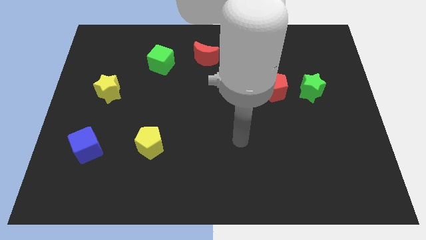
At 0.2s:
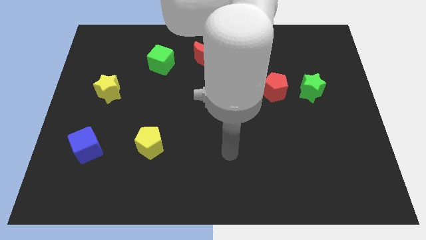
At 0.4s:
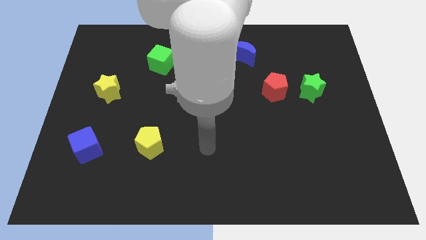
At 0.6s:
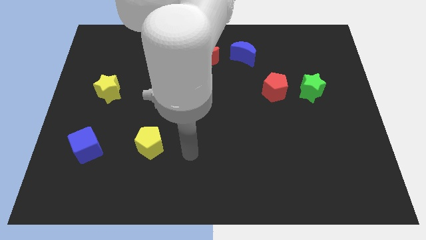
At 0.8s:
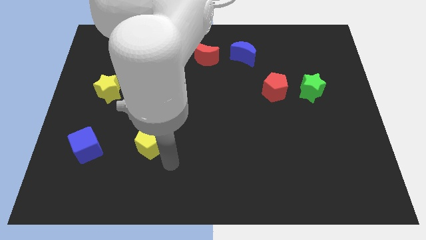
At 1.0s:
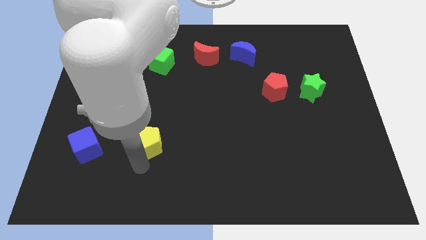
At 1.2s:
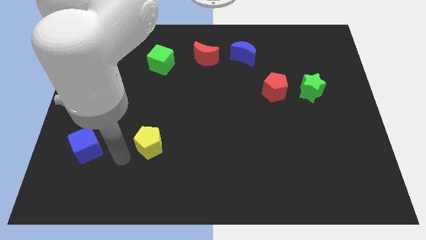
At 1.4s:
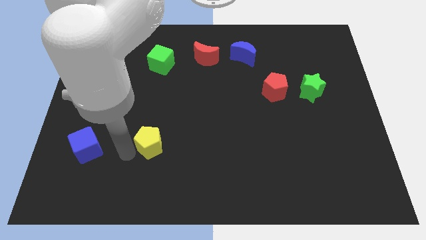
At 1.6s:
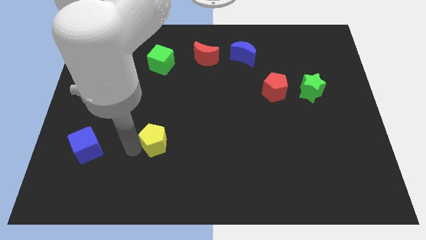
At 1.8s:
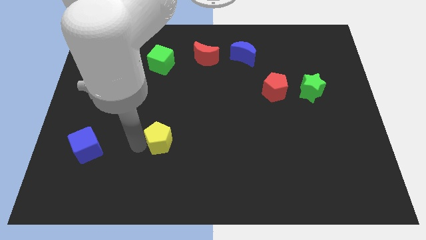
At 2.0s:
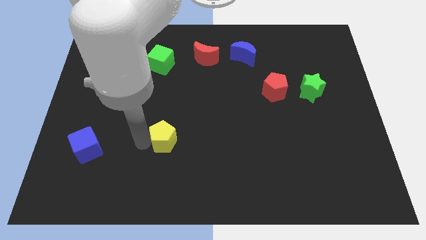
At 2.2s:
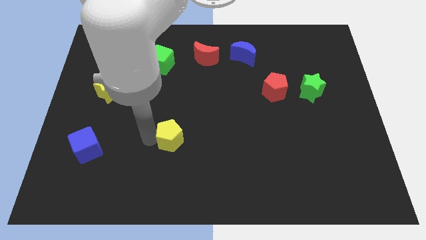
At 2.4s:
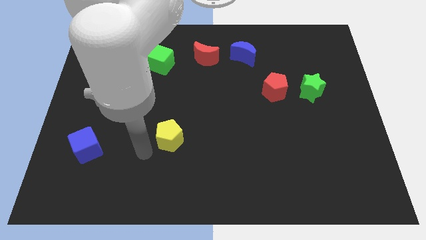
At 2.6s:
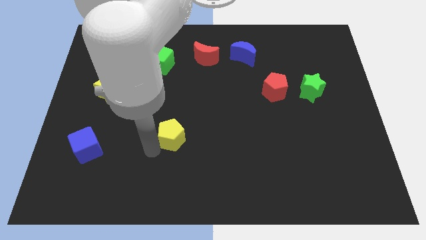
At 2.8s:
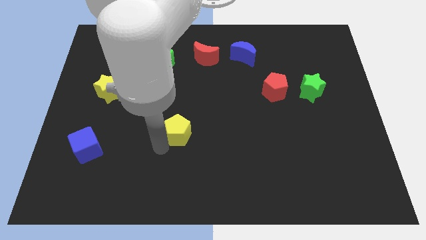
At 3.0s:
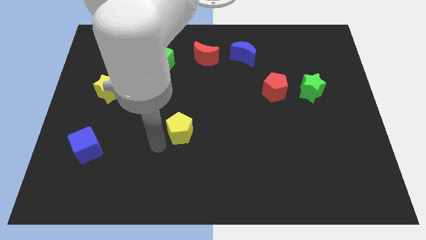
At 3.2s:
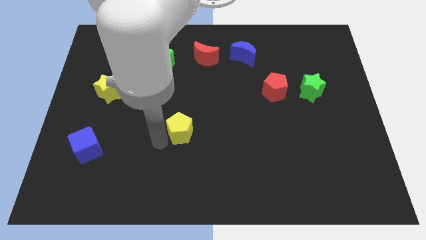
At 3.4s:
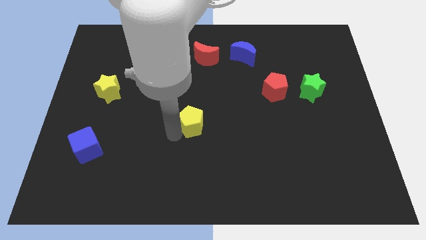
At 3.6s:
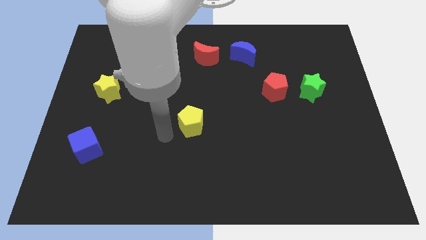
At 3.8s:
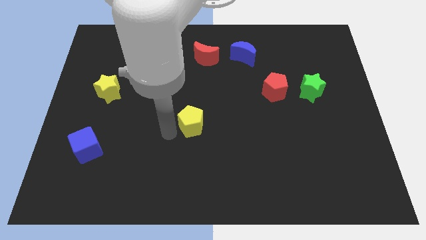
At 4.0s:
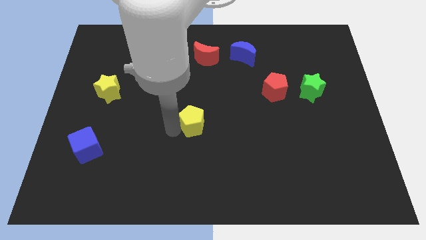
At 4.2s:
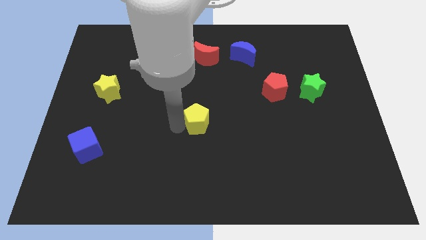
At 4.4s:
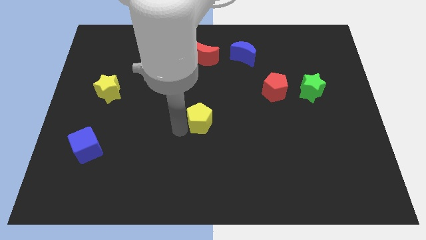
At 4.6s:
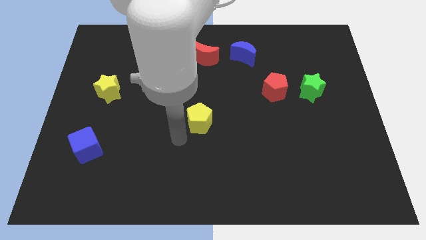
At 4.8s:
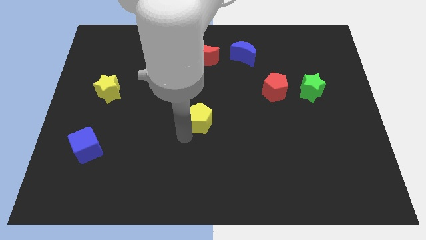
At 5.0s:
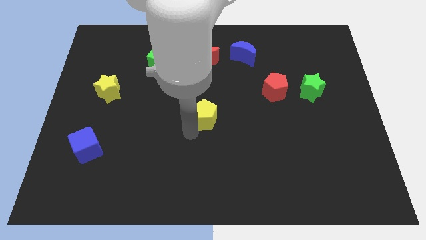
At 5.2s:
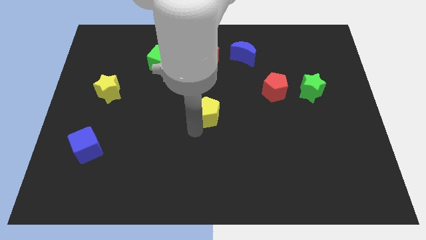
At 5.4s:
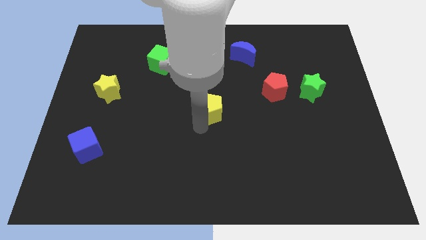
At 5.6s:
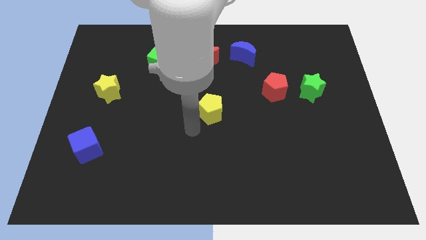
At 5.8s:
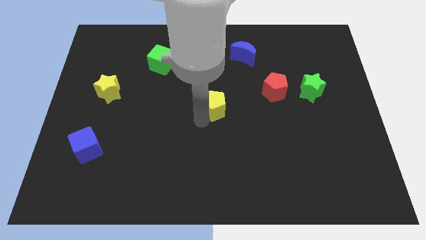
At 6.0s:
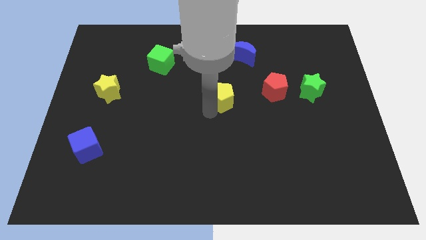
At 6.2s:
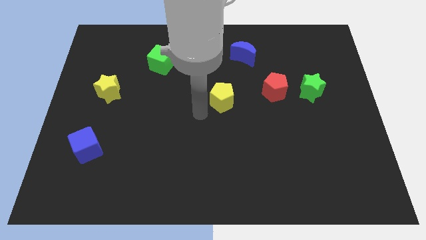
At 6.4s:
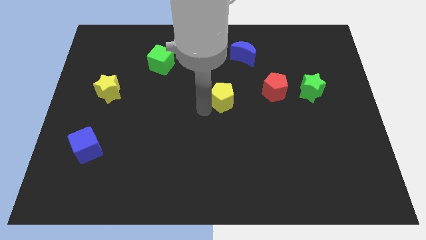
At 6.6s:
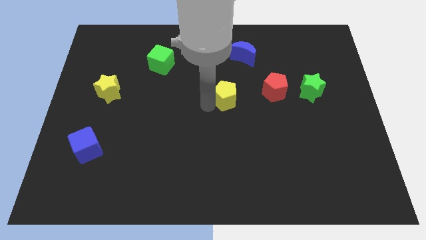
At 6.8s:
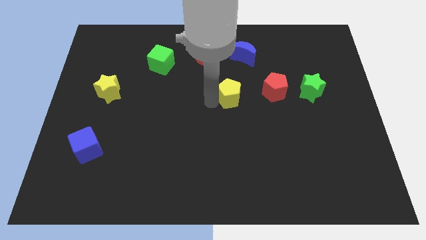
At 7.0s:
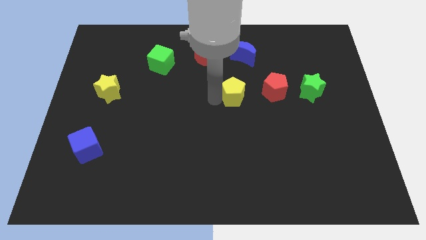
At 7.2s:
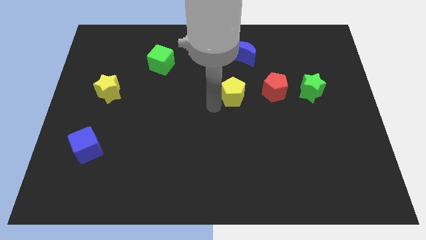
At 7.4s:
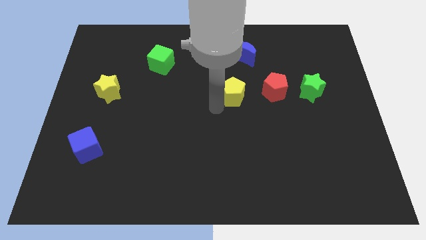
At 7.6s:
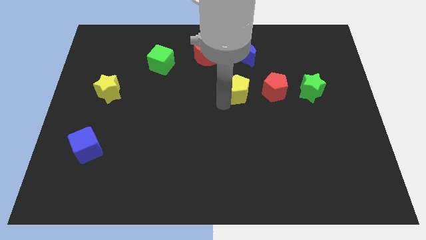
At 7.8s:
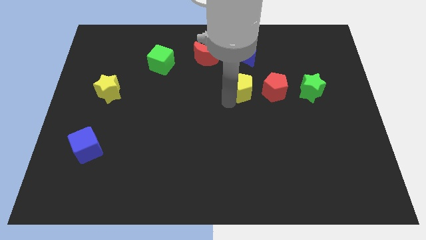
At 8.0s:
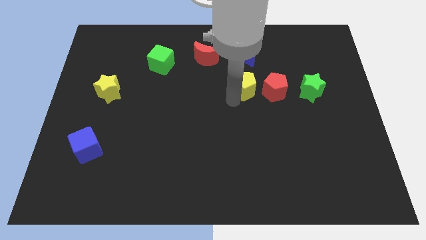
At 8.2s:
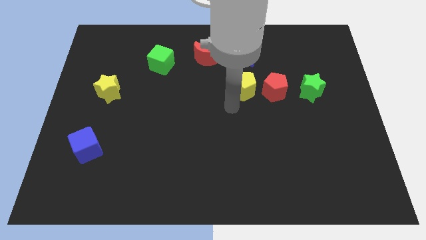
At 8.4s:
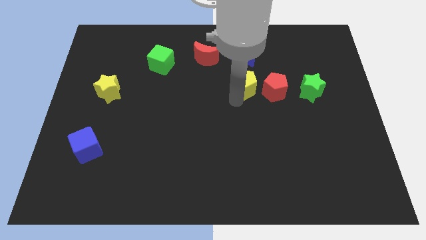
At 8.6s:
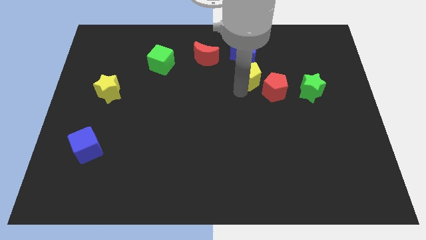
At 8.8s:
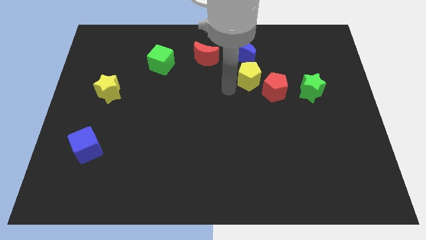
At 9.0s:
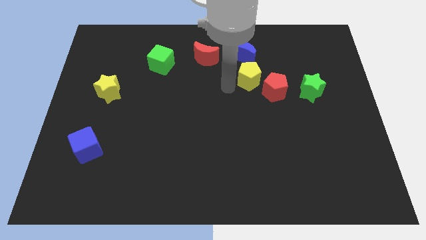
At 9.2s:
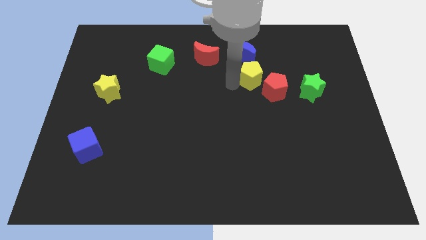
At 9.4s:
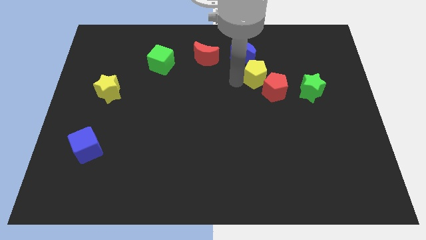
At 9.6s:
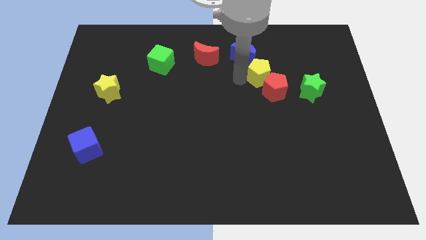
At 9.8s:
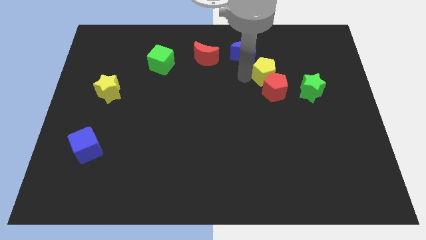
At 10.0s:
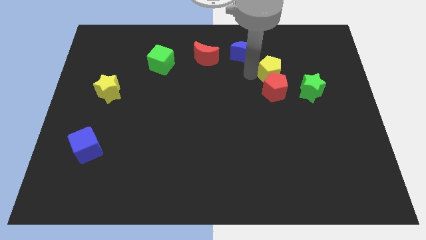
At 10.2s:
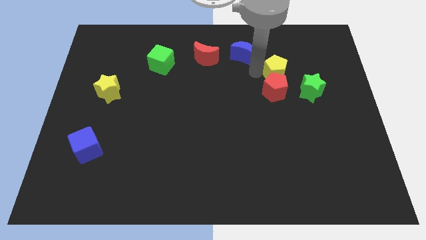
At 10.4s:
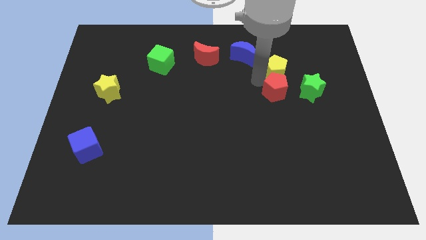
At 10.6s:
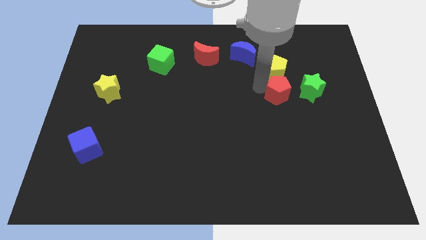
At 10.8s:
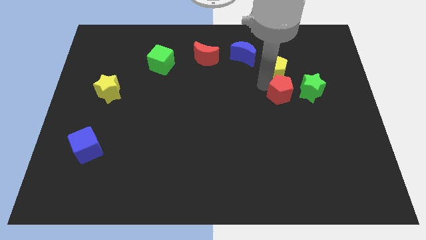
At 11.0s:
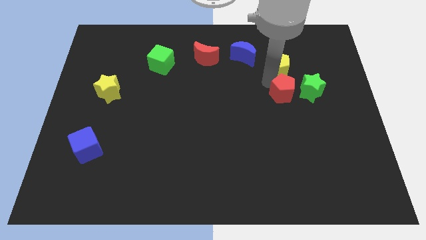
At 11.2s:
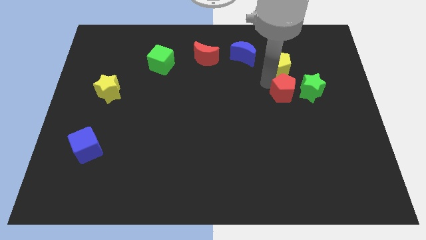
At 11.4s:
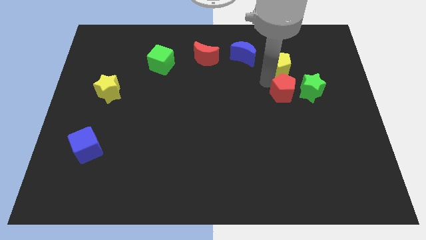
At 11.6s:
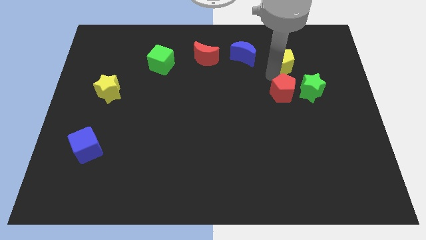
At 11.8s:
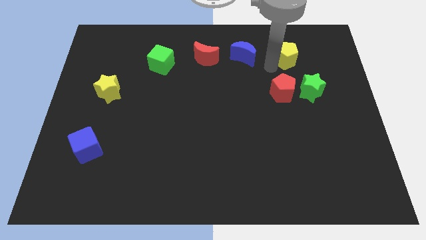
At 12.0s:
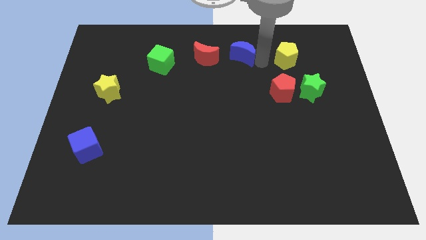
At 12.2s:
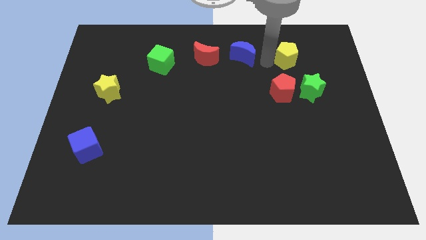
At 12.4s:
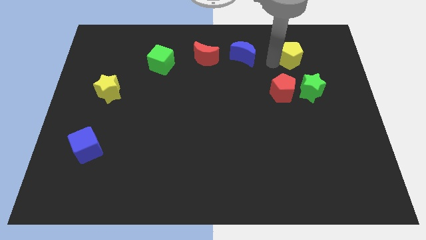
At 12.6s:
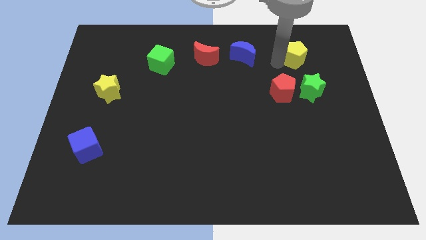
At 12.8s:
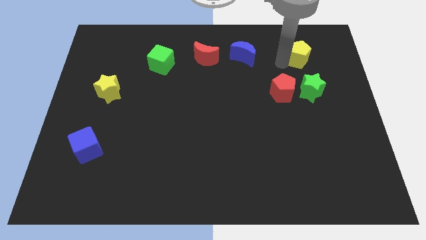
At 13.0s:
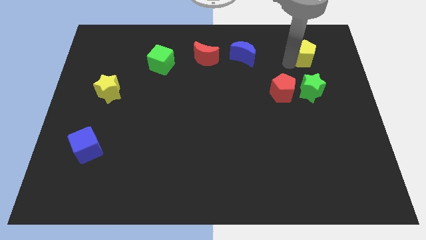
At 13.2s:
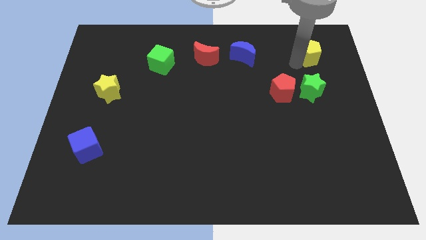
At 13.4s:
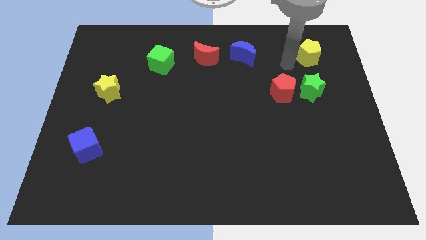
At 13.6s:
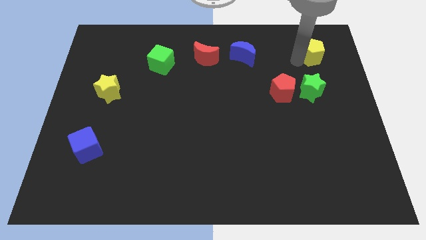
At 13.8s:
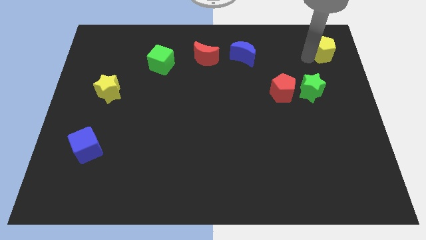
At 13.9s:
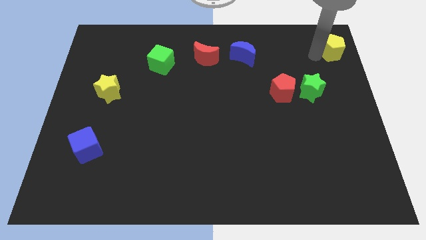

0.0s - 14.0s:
slide the yellow pentagon to the top right
